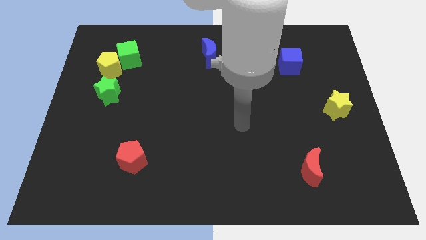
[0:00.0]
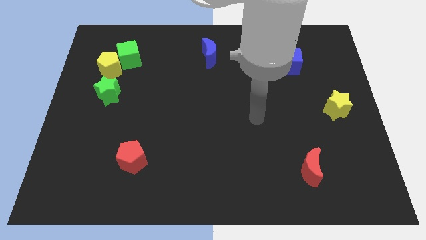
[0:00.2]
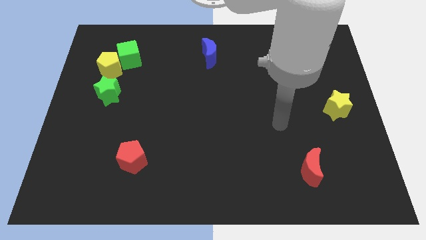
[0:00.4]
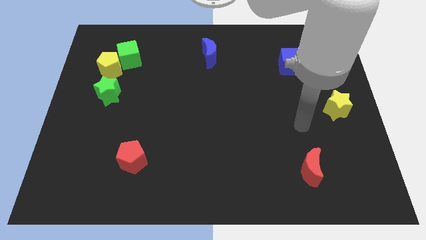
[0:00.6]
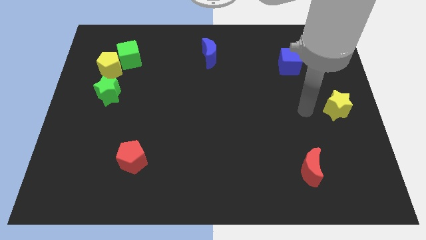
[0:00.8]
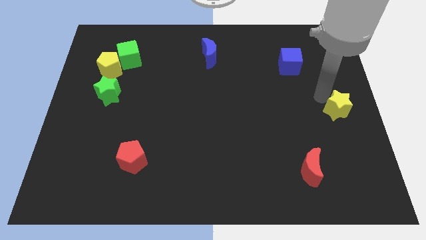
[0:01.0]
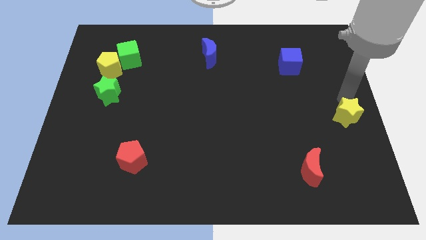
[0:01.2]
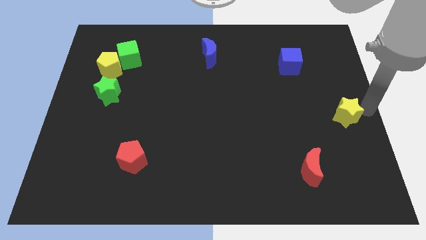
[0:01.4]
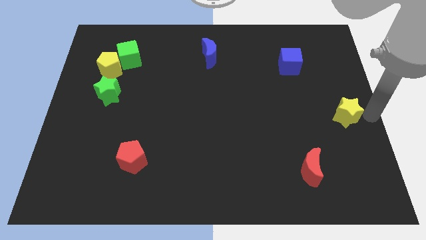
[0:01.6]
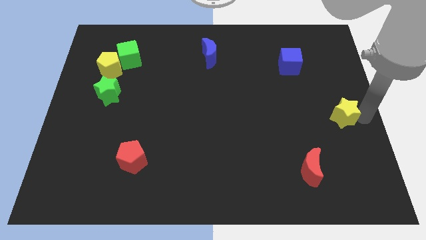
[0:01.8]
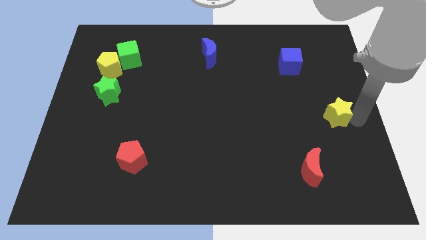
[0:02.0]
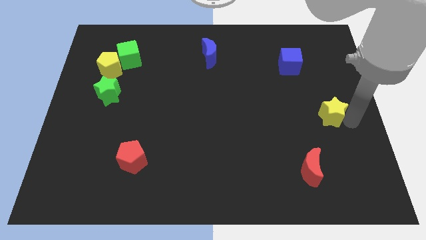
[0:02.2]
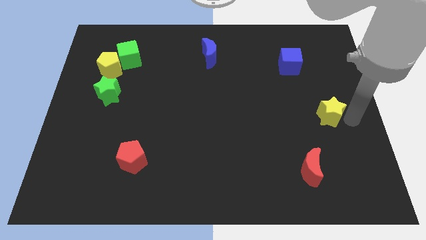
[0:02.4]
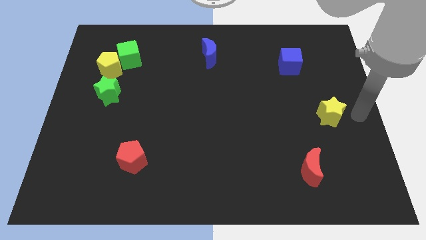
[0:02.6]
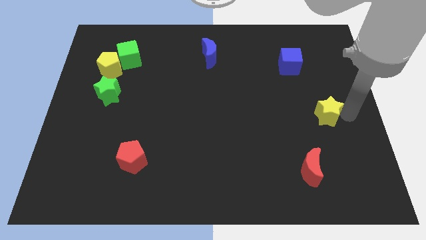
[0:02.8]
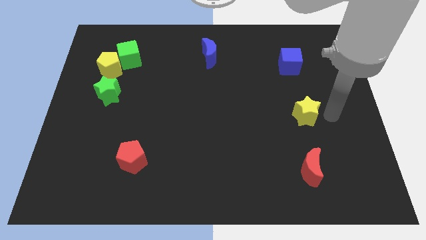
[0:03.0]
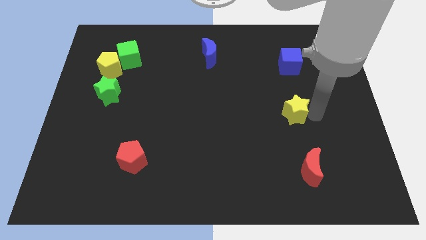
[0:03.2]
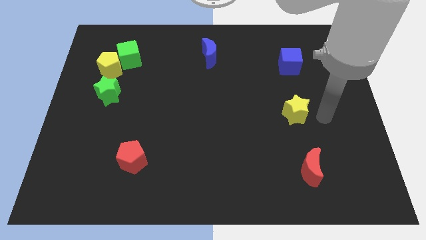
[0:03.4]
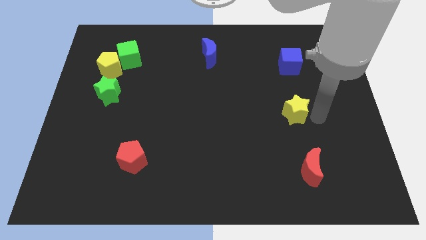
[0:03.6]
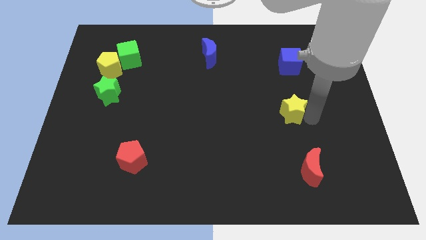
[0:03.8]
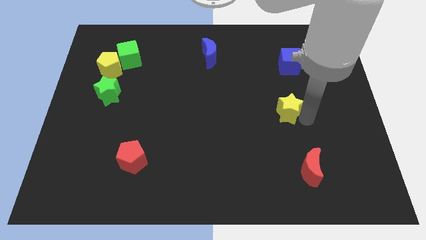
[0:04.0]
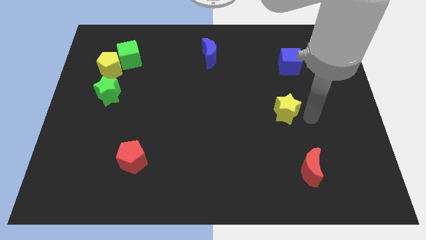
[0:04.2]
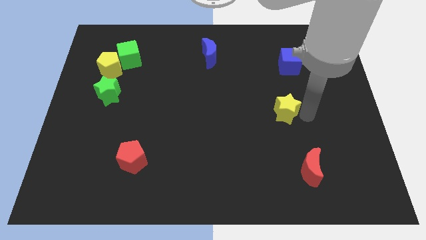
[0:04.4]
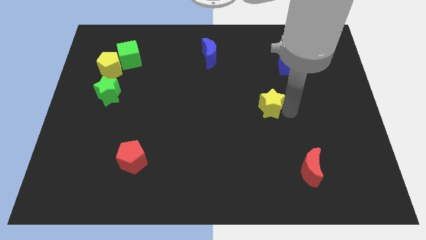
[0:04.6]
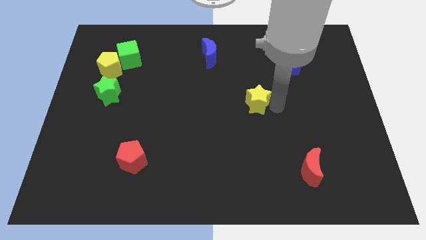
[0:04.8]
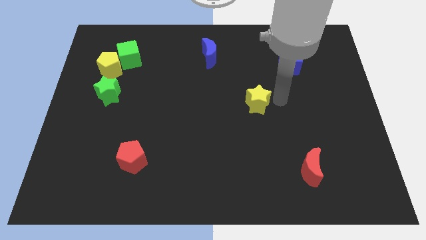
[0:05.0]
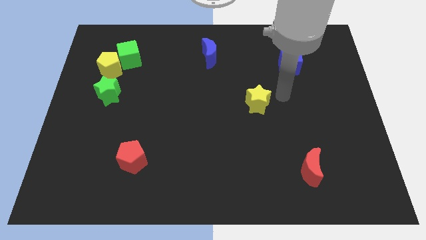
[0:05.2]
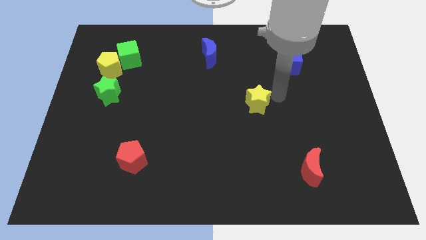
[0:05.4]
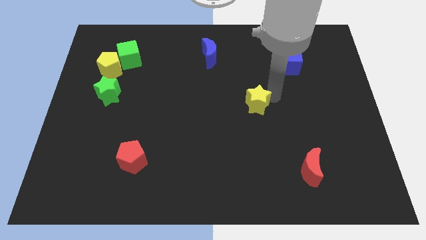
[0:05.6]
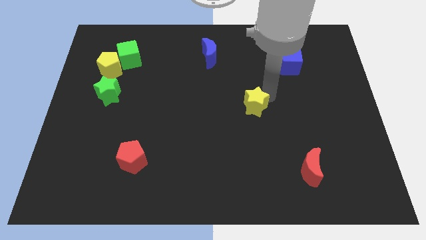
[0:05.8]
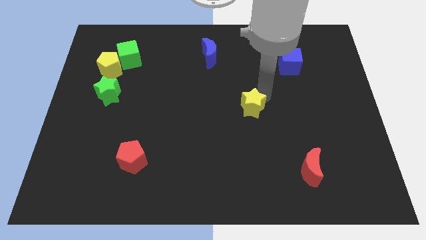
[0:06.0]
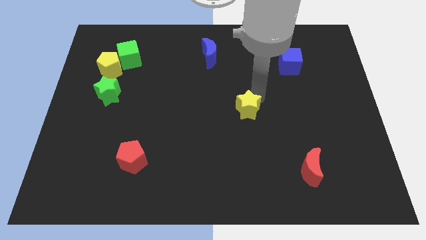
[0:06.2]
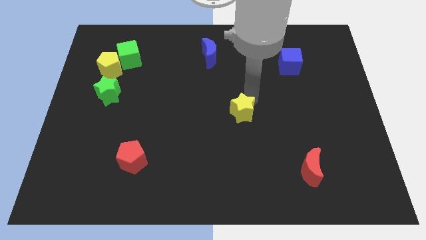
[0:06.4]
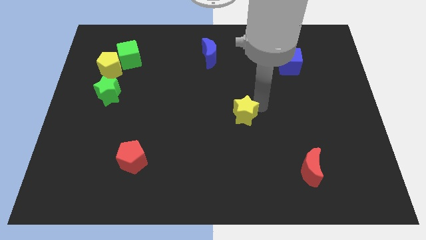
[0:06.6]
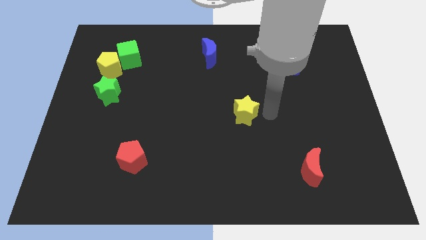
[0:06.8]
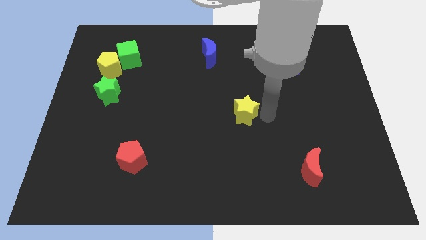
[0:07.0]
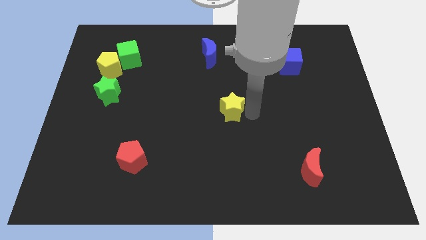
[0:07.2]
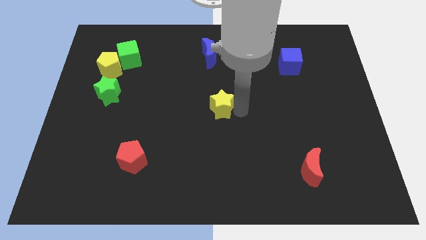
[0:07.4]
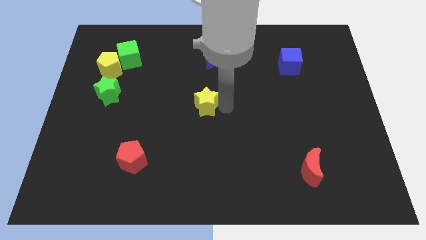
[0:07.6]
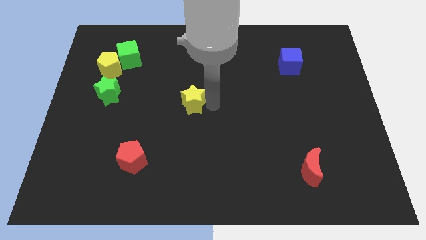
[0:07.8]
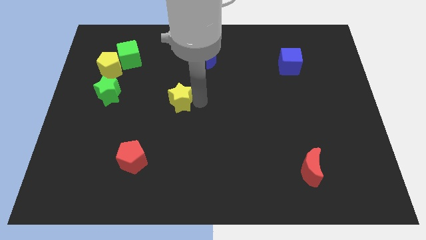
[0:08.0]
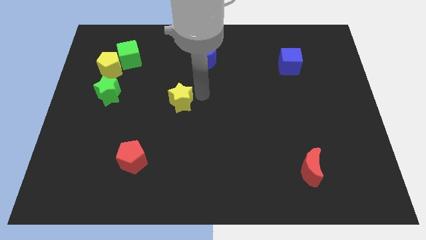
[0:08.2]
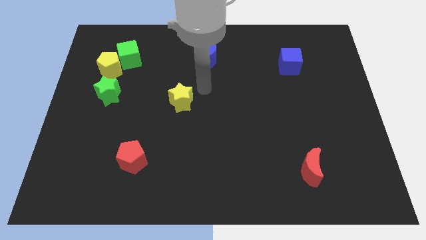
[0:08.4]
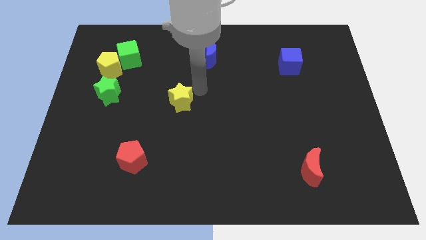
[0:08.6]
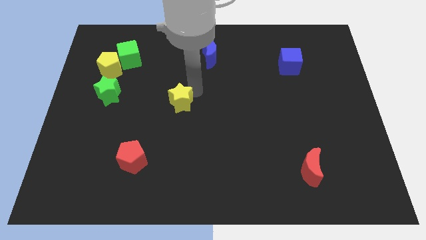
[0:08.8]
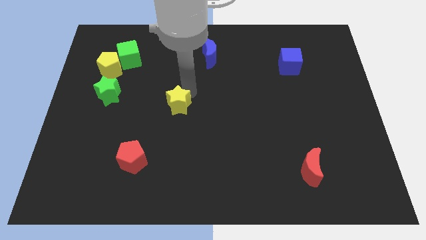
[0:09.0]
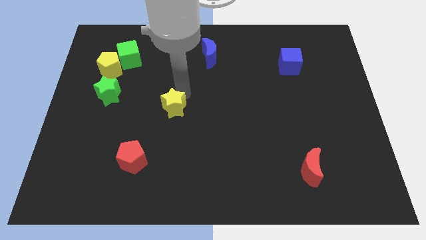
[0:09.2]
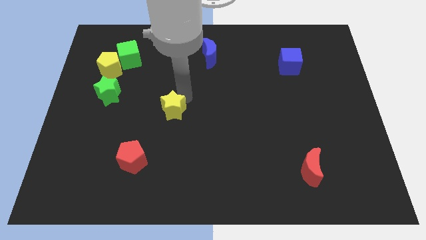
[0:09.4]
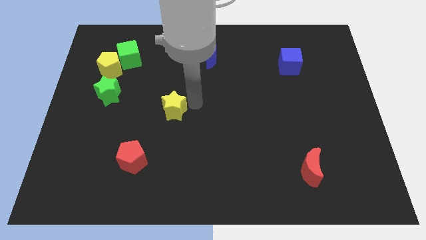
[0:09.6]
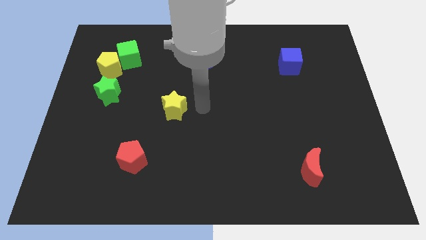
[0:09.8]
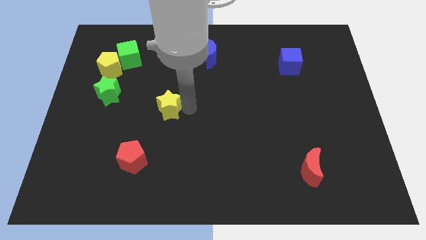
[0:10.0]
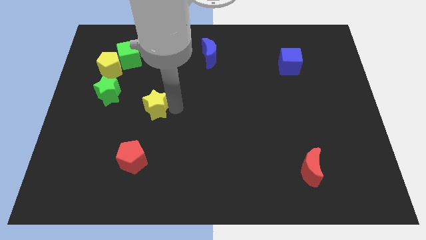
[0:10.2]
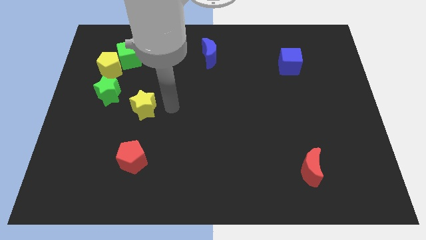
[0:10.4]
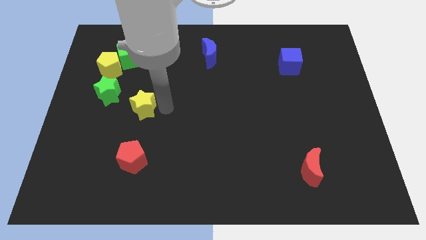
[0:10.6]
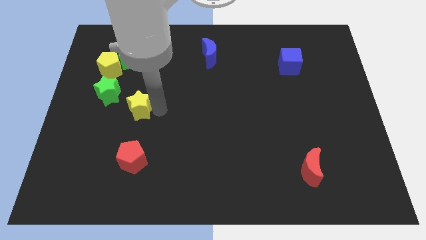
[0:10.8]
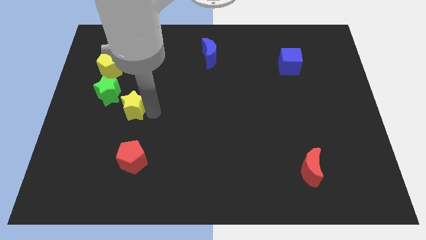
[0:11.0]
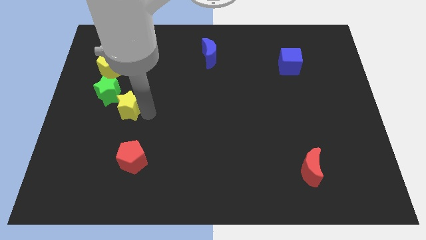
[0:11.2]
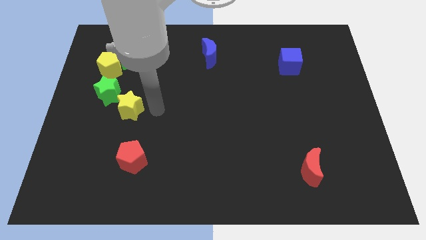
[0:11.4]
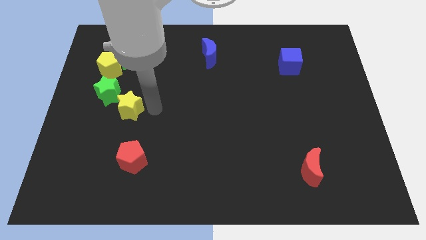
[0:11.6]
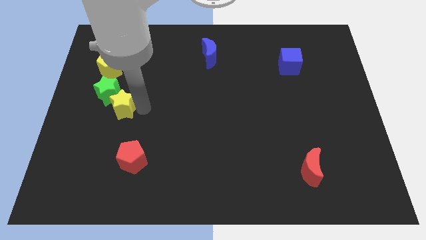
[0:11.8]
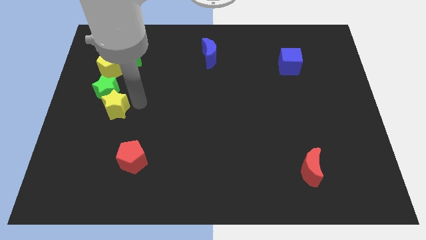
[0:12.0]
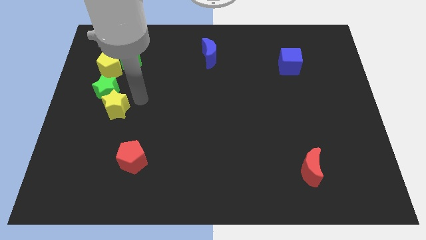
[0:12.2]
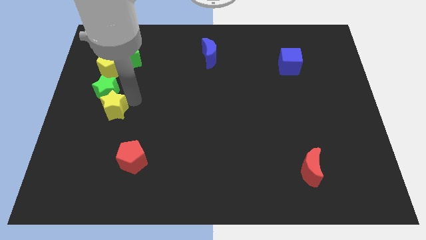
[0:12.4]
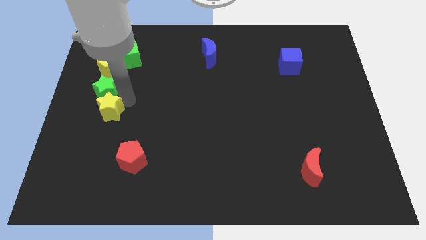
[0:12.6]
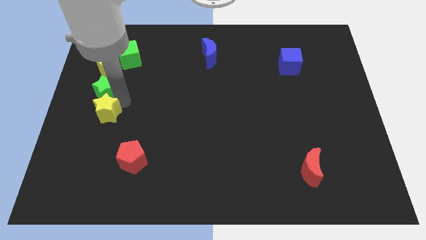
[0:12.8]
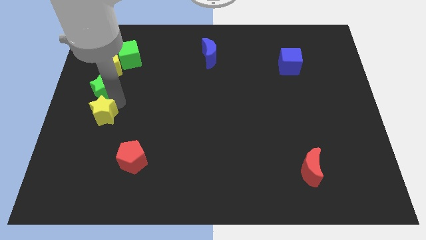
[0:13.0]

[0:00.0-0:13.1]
put the yellow star to the left side of the board
